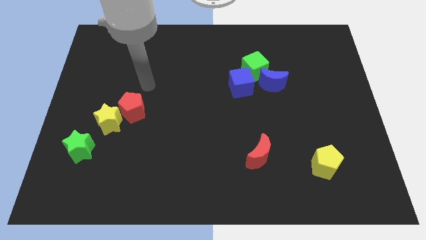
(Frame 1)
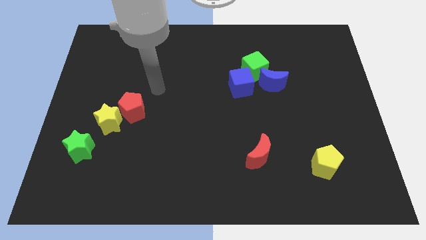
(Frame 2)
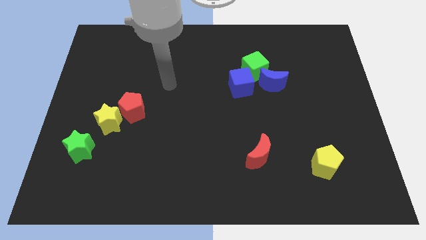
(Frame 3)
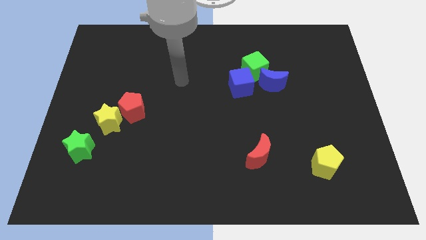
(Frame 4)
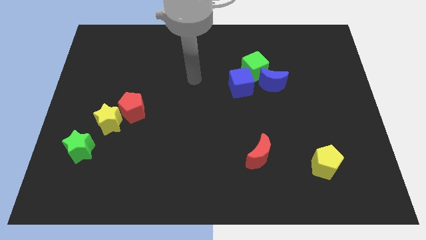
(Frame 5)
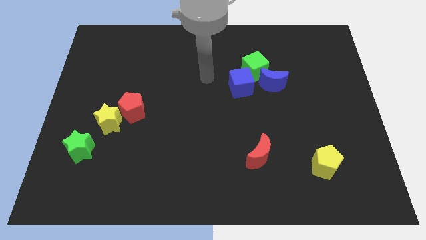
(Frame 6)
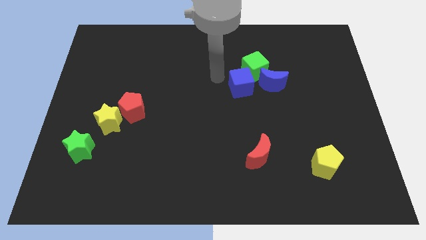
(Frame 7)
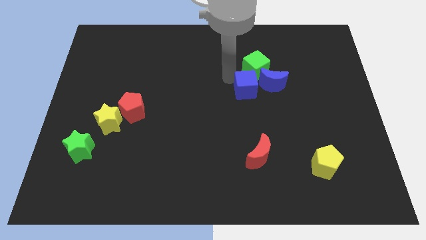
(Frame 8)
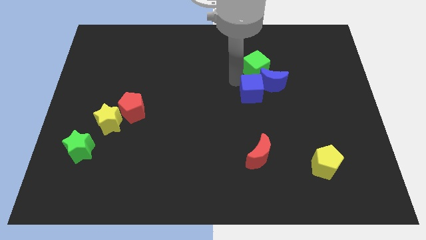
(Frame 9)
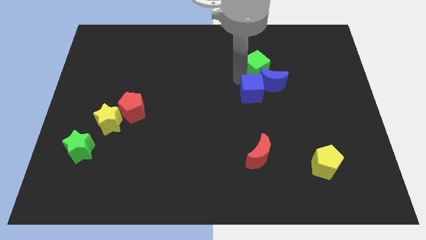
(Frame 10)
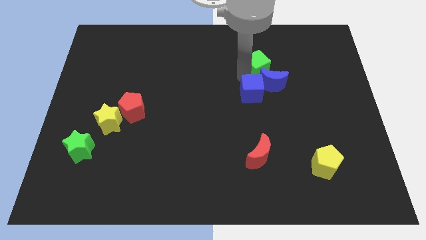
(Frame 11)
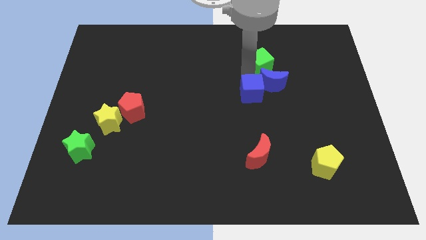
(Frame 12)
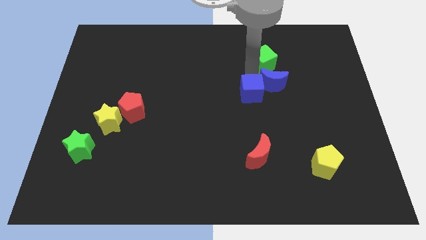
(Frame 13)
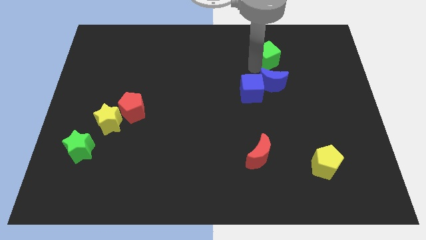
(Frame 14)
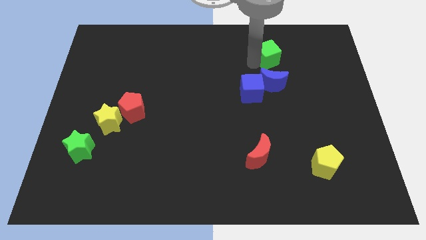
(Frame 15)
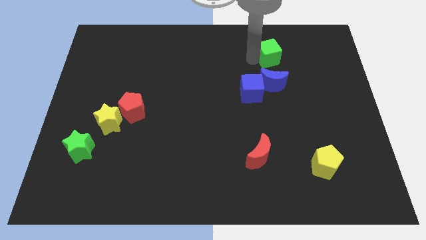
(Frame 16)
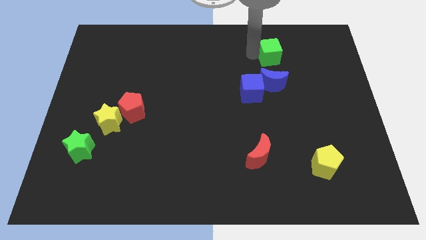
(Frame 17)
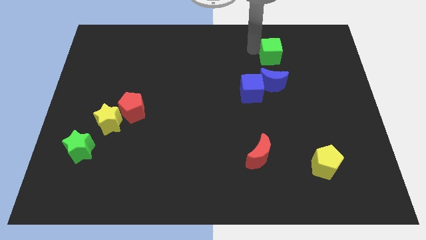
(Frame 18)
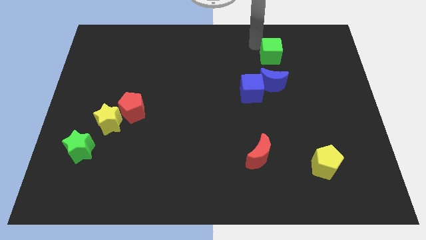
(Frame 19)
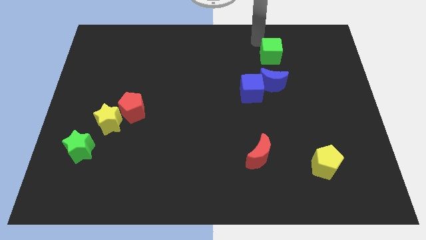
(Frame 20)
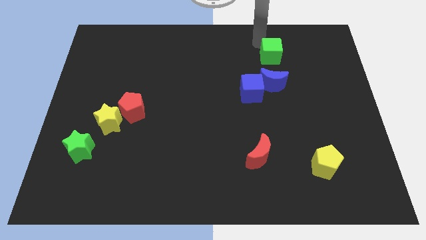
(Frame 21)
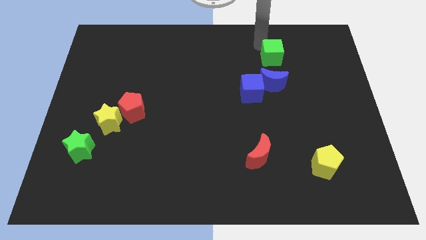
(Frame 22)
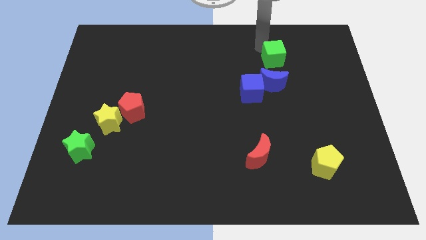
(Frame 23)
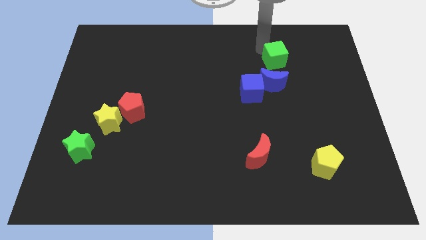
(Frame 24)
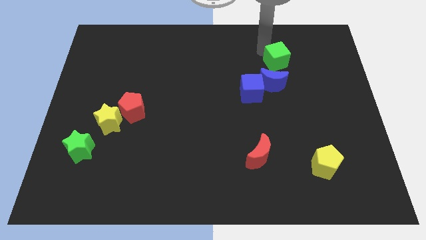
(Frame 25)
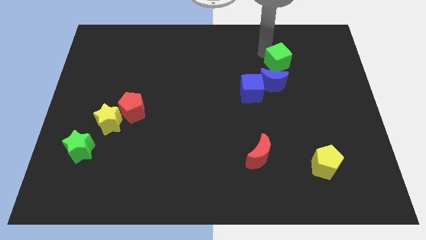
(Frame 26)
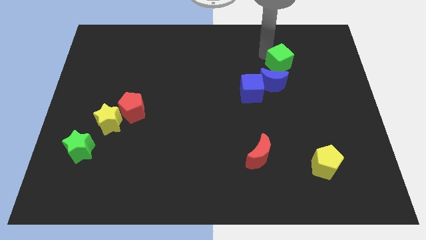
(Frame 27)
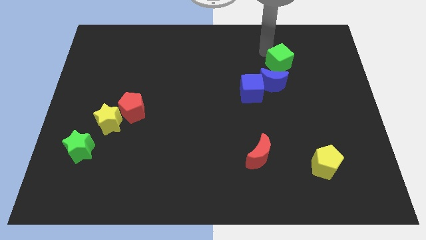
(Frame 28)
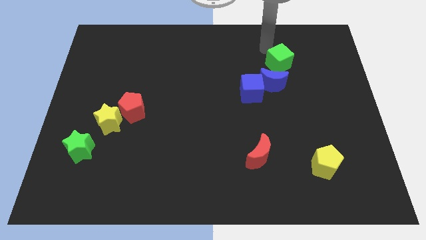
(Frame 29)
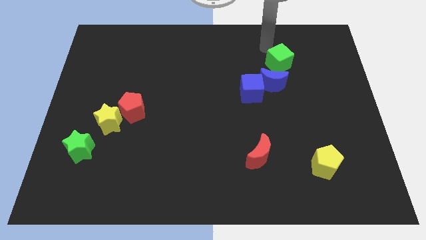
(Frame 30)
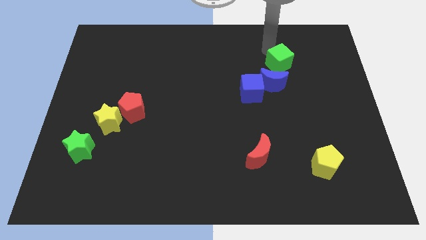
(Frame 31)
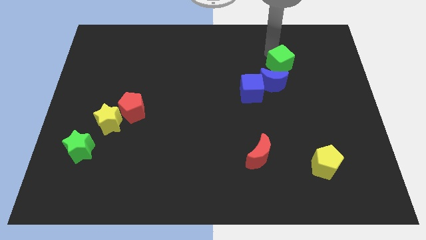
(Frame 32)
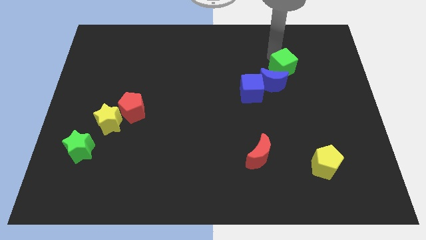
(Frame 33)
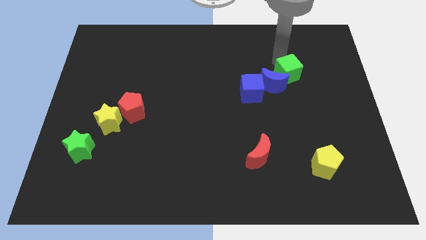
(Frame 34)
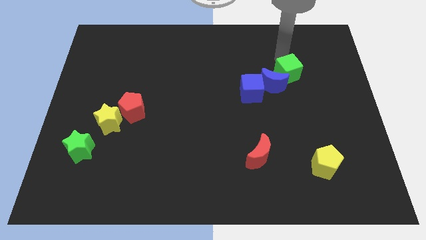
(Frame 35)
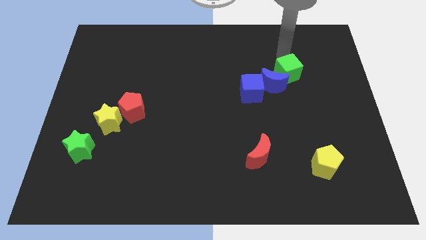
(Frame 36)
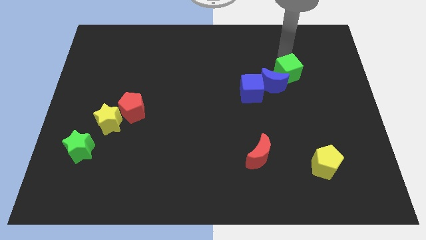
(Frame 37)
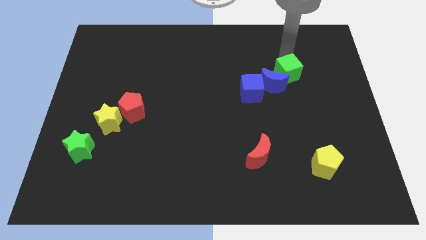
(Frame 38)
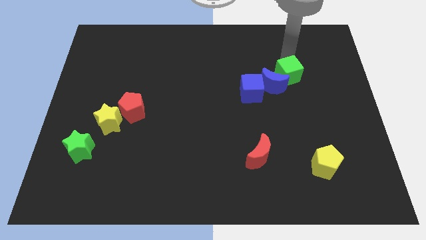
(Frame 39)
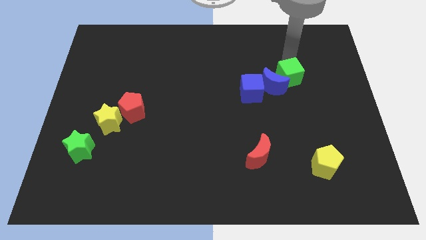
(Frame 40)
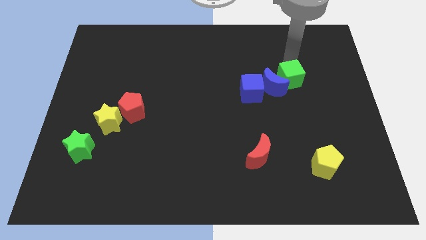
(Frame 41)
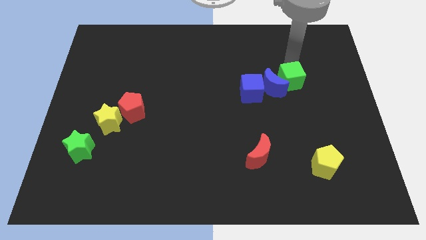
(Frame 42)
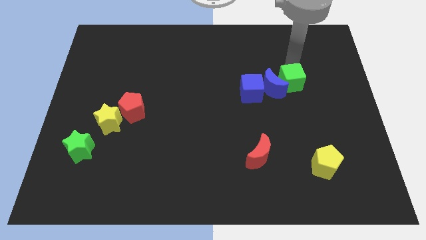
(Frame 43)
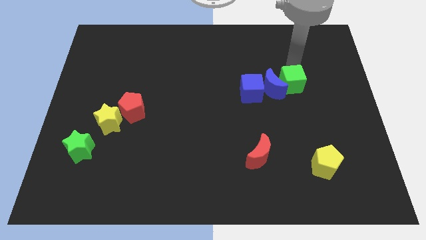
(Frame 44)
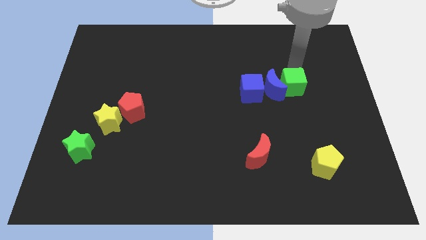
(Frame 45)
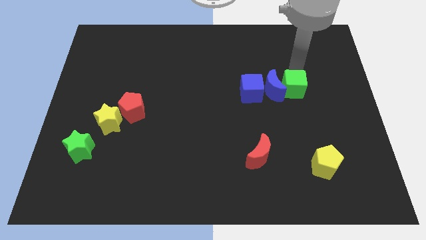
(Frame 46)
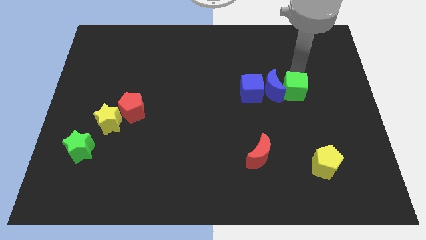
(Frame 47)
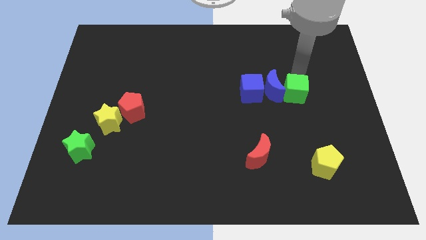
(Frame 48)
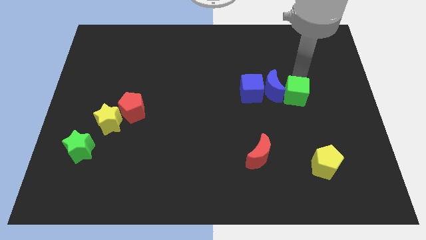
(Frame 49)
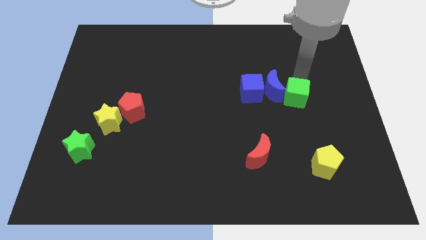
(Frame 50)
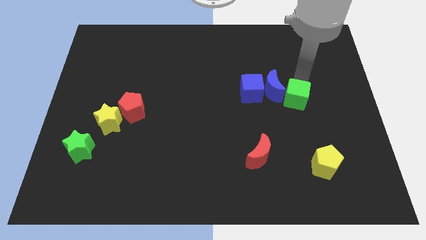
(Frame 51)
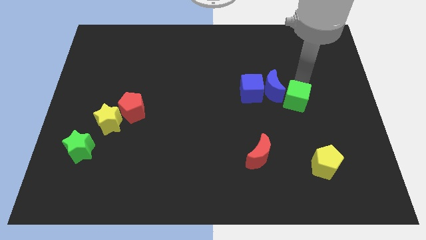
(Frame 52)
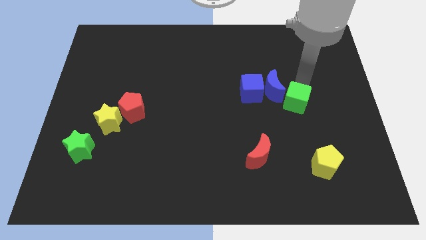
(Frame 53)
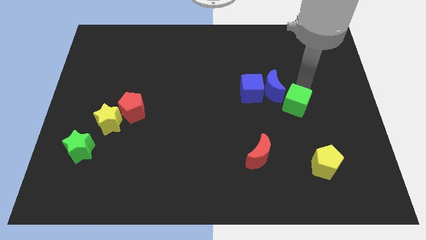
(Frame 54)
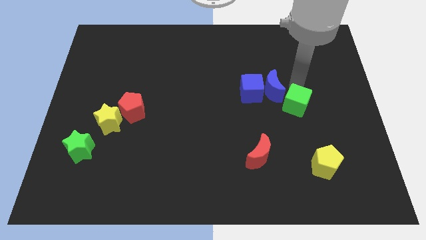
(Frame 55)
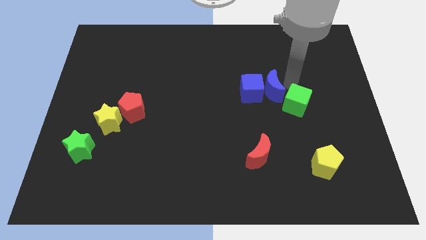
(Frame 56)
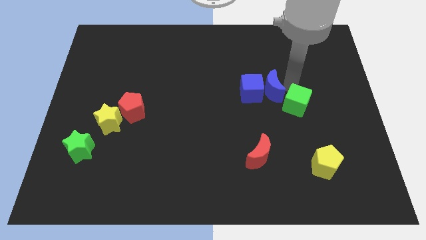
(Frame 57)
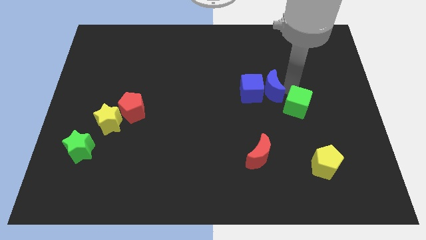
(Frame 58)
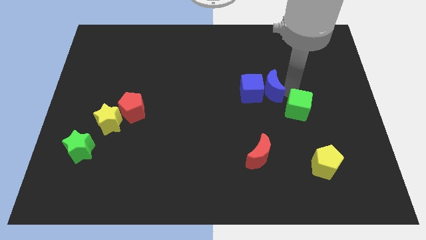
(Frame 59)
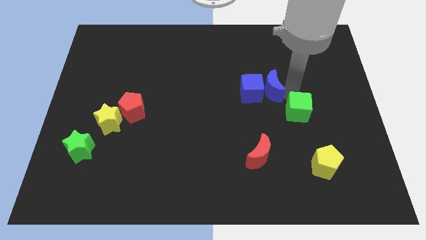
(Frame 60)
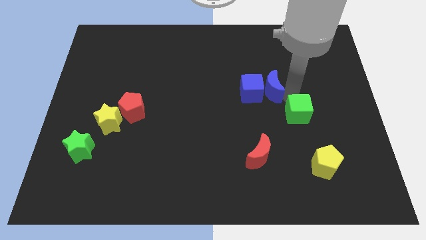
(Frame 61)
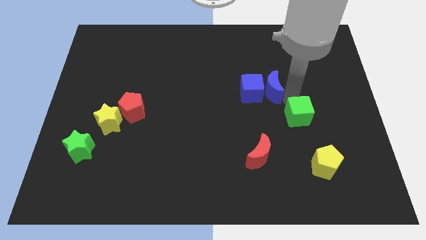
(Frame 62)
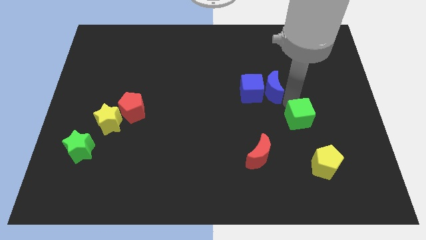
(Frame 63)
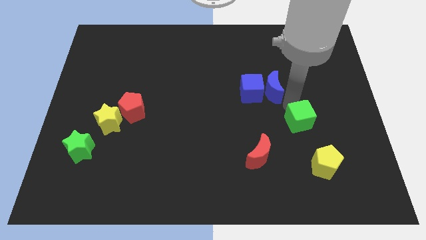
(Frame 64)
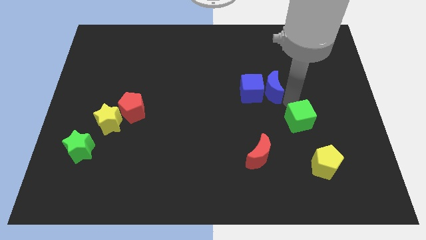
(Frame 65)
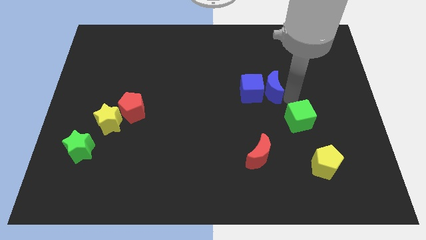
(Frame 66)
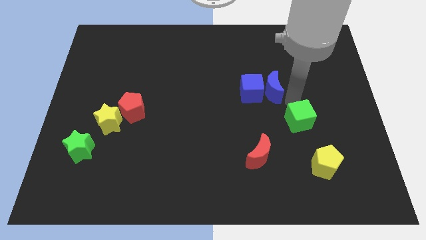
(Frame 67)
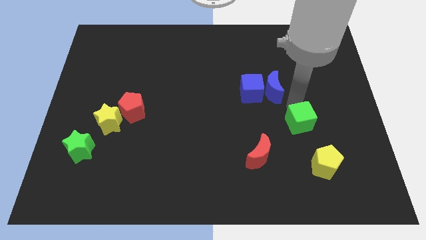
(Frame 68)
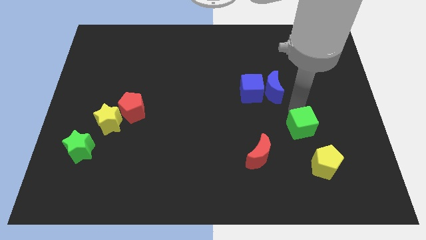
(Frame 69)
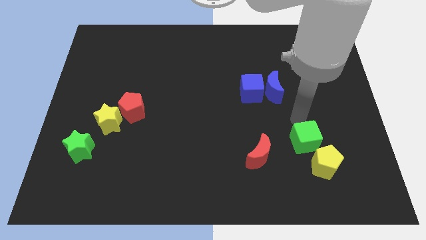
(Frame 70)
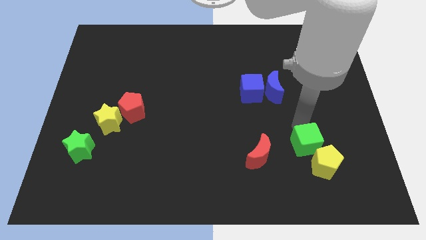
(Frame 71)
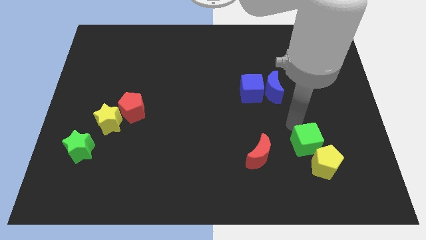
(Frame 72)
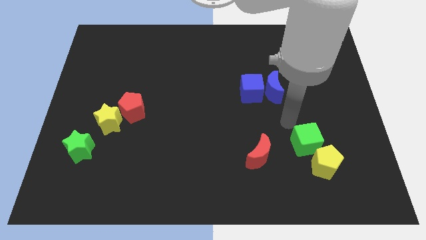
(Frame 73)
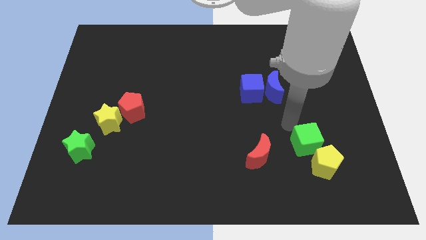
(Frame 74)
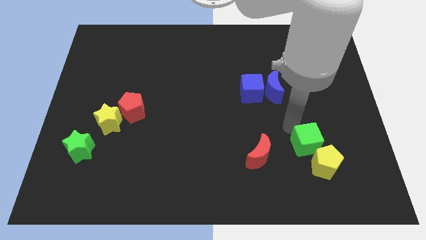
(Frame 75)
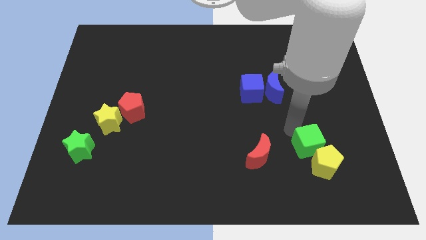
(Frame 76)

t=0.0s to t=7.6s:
move the green cube close to the yellow pentagon
